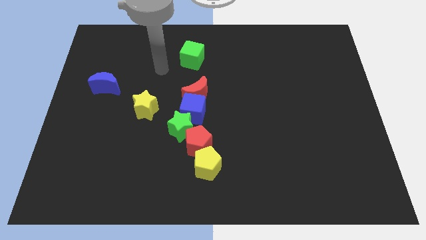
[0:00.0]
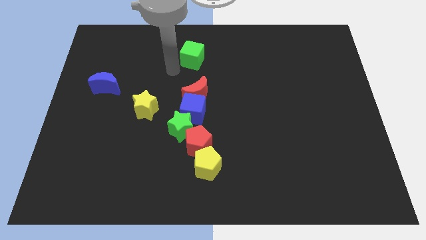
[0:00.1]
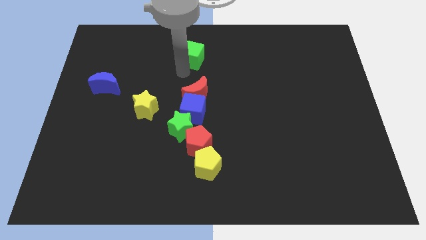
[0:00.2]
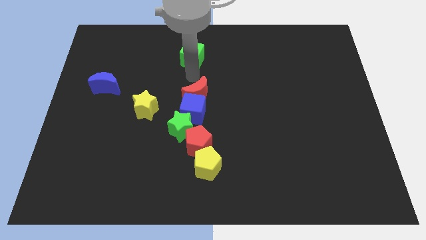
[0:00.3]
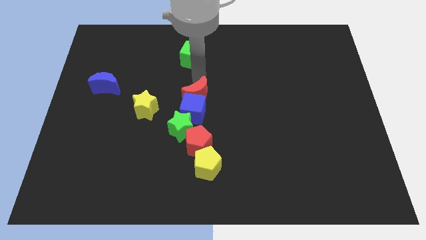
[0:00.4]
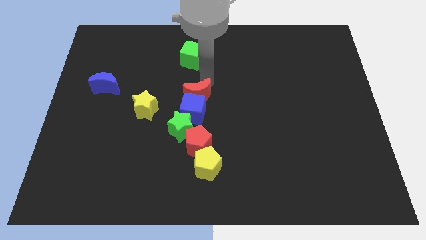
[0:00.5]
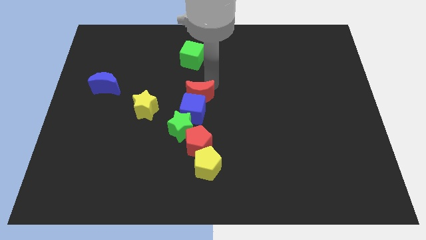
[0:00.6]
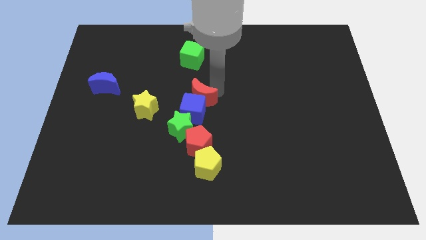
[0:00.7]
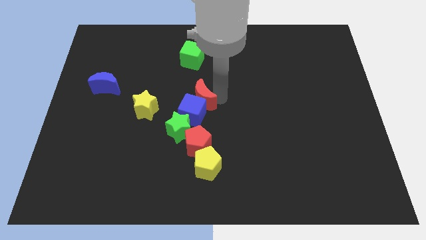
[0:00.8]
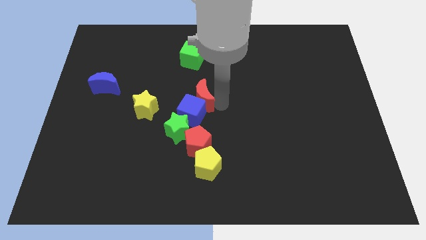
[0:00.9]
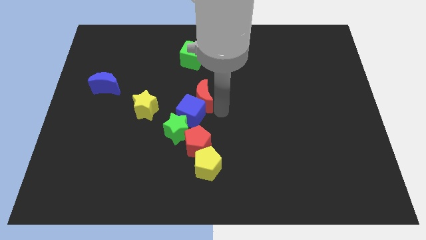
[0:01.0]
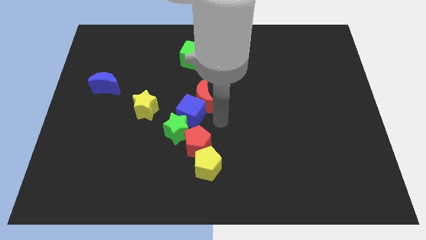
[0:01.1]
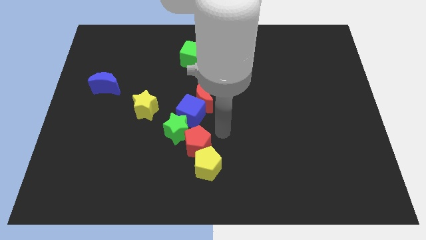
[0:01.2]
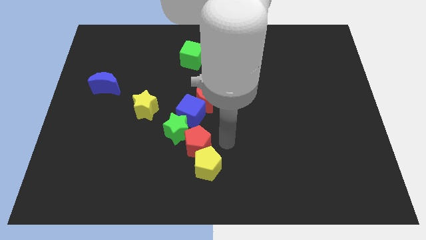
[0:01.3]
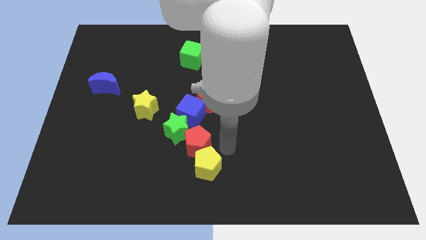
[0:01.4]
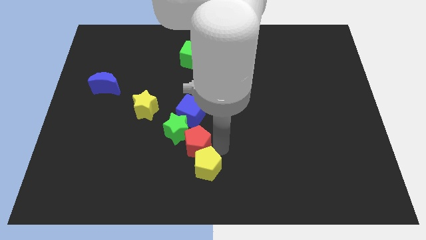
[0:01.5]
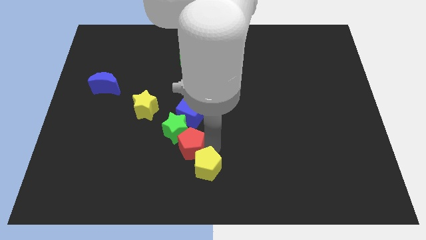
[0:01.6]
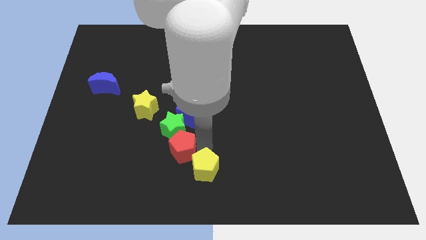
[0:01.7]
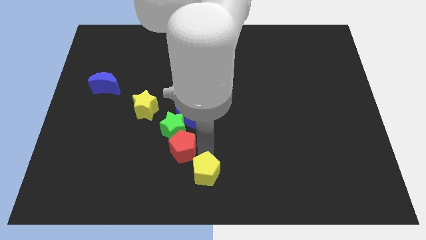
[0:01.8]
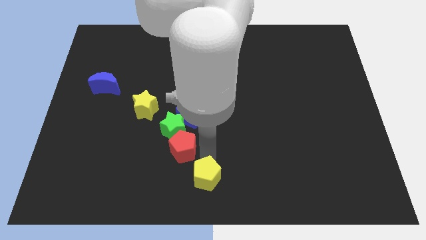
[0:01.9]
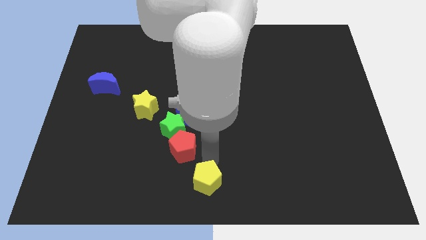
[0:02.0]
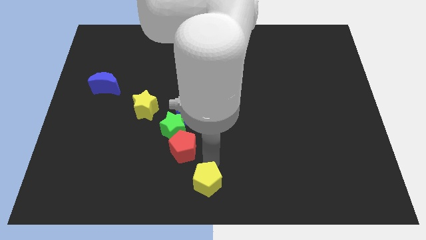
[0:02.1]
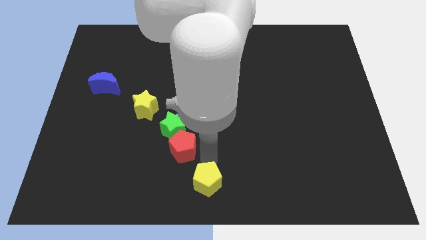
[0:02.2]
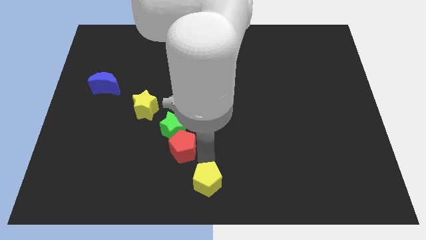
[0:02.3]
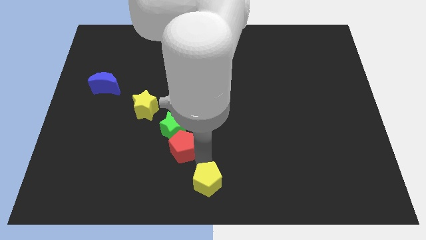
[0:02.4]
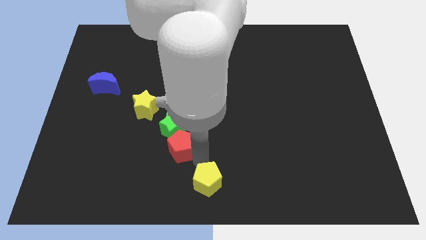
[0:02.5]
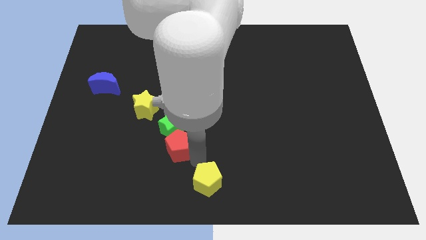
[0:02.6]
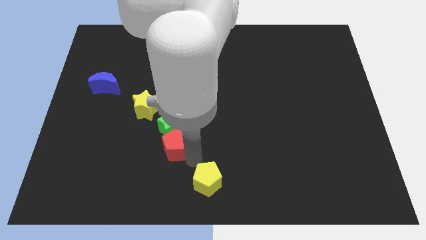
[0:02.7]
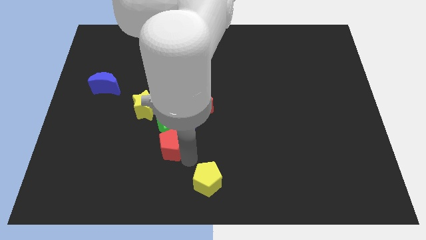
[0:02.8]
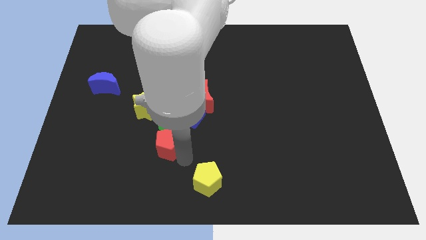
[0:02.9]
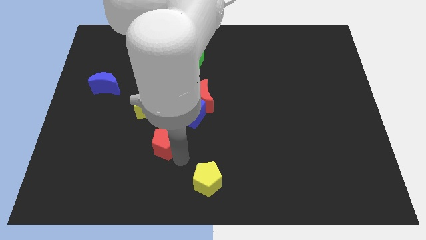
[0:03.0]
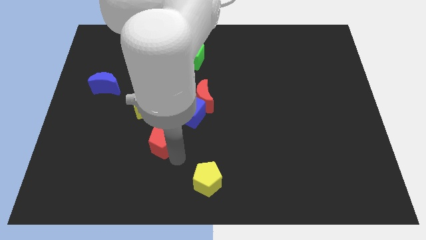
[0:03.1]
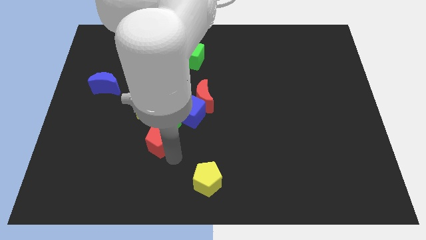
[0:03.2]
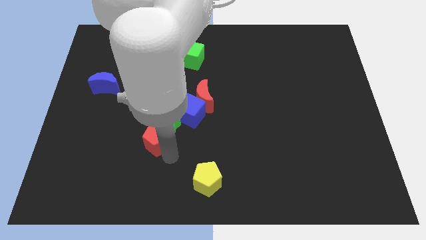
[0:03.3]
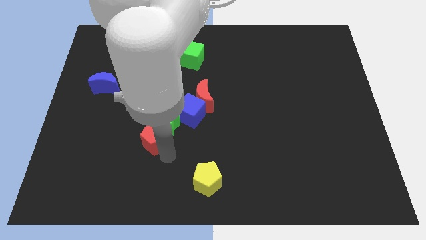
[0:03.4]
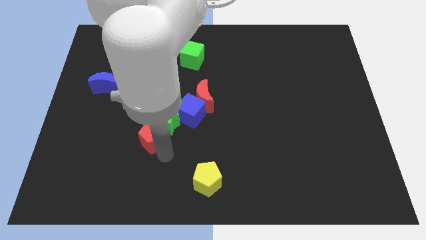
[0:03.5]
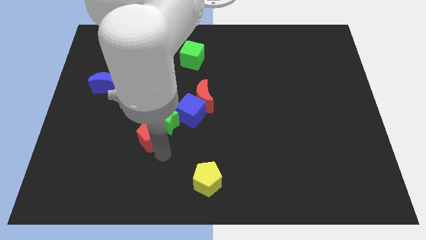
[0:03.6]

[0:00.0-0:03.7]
slightly push the red pentagon diagonally upwards and to the left

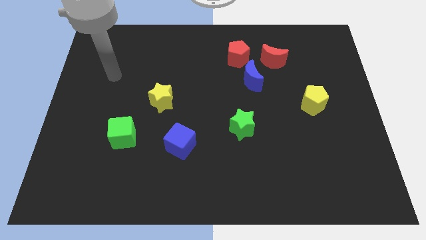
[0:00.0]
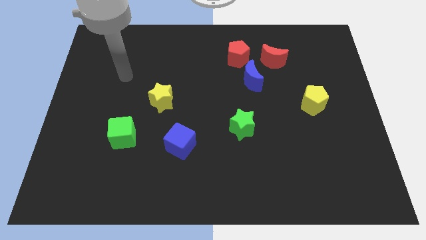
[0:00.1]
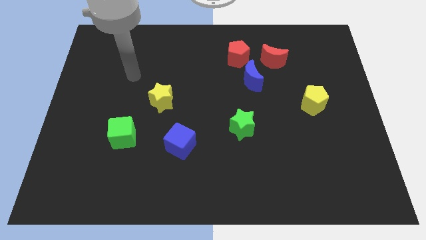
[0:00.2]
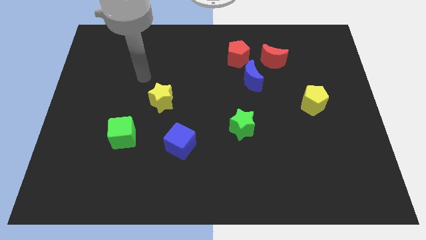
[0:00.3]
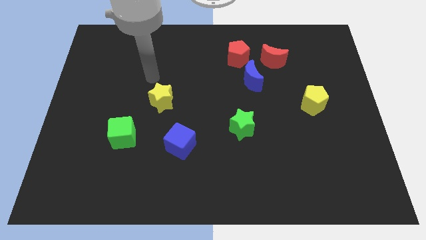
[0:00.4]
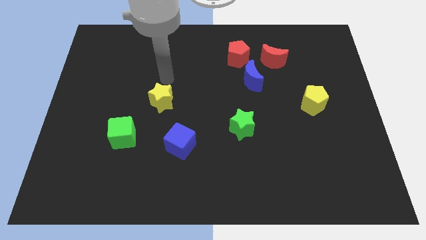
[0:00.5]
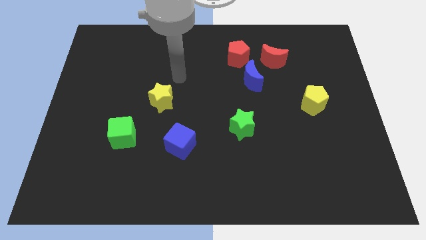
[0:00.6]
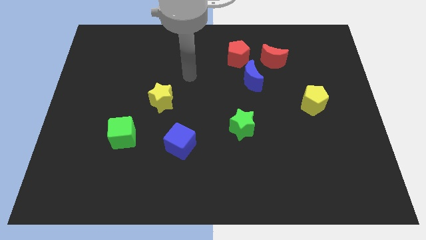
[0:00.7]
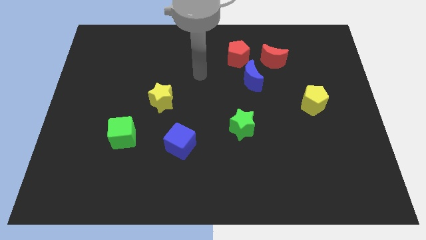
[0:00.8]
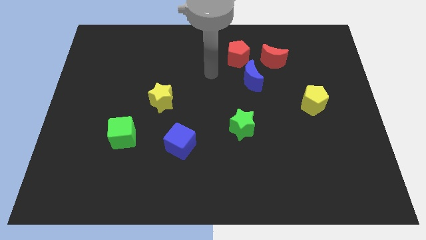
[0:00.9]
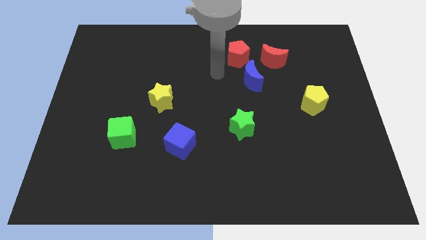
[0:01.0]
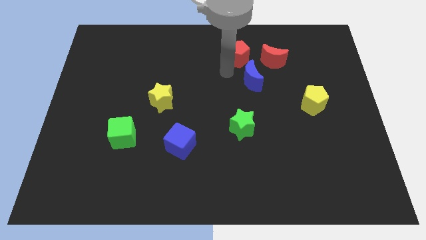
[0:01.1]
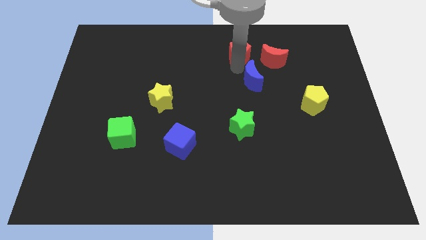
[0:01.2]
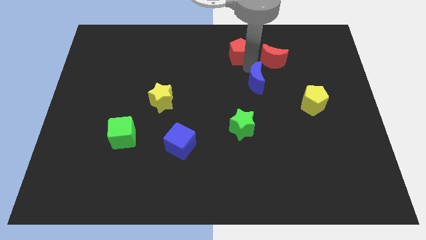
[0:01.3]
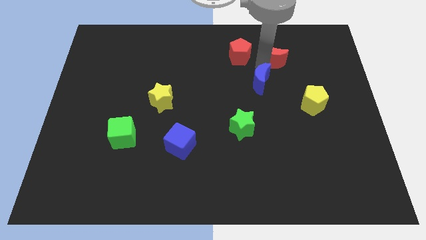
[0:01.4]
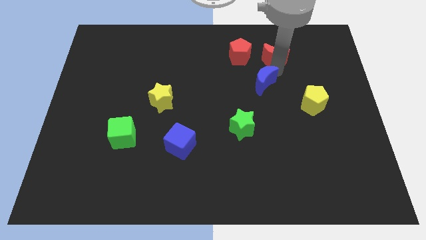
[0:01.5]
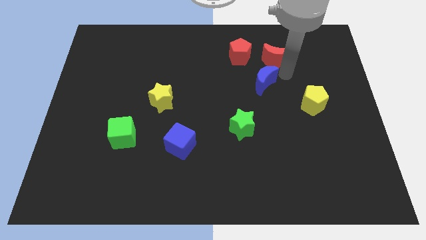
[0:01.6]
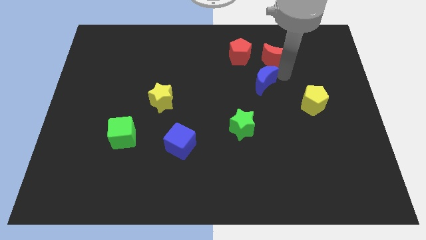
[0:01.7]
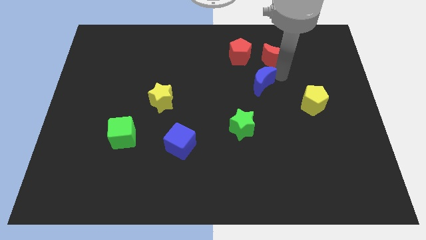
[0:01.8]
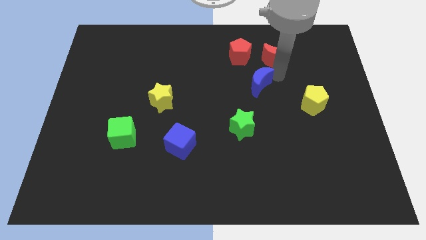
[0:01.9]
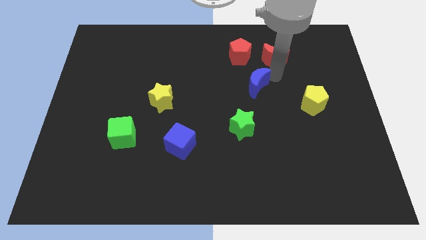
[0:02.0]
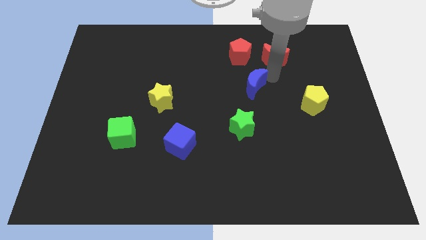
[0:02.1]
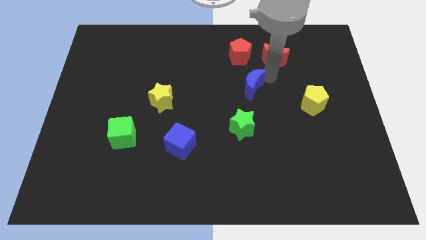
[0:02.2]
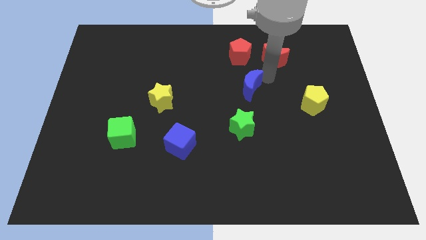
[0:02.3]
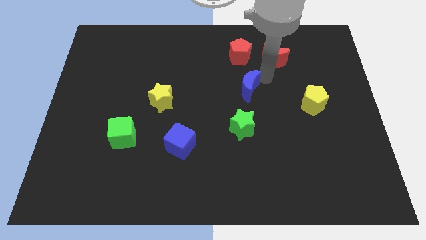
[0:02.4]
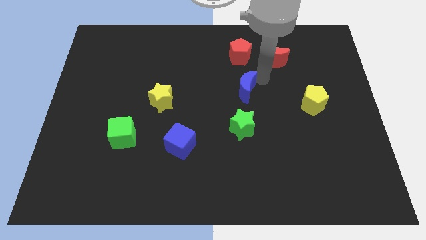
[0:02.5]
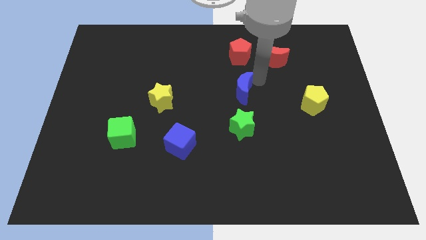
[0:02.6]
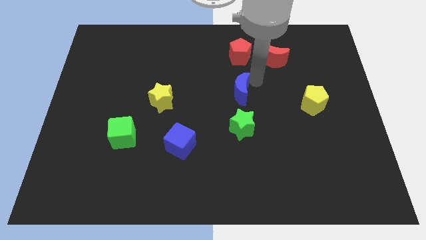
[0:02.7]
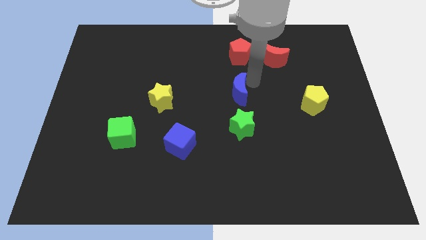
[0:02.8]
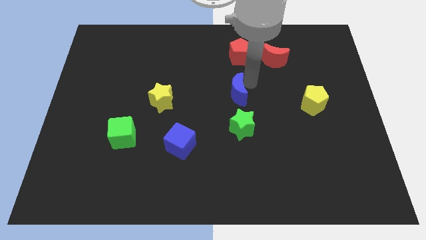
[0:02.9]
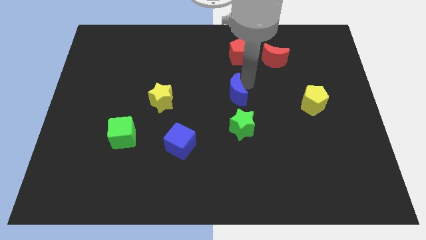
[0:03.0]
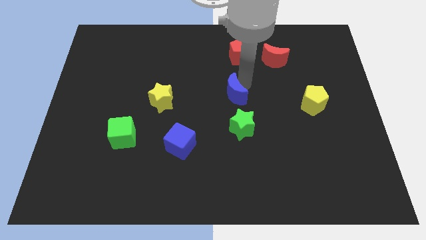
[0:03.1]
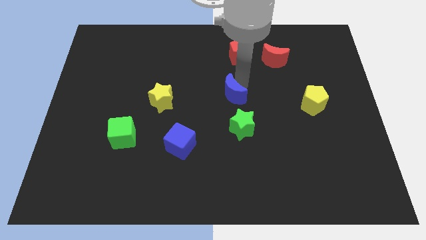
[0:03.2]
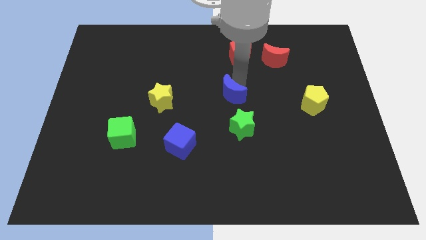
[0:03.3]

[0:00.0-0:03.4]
slightly move the blue moon downwards and then left

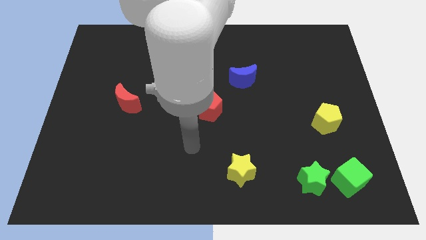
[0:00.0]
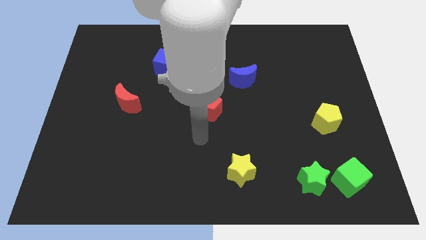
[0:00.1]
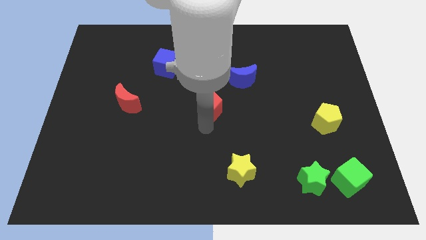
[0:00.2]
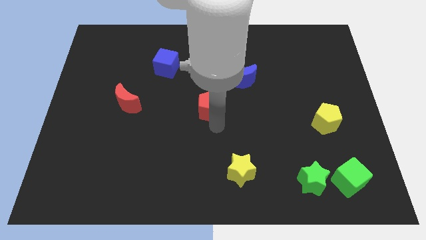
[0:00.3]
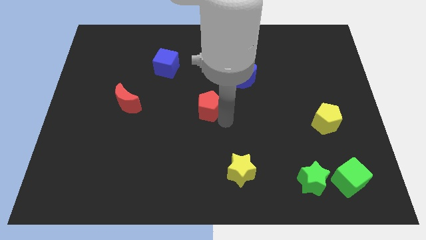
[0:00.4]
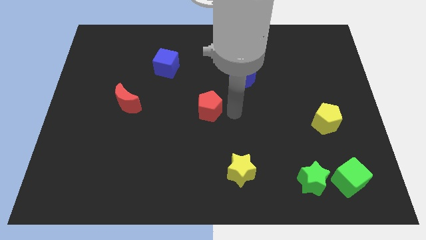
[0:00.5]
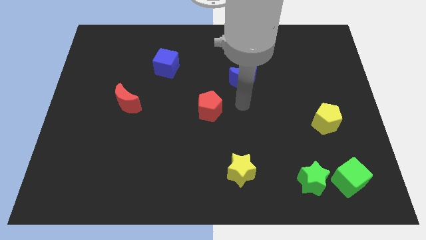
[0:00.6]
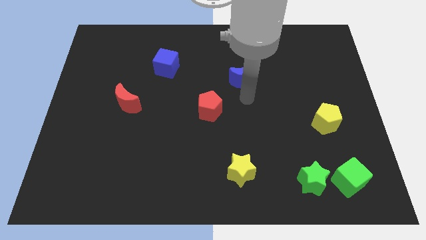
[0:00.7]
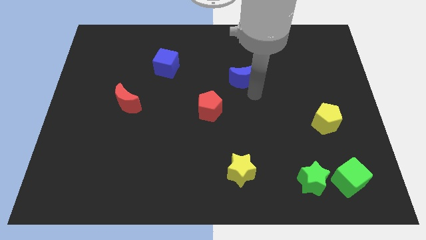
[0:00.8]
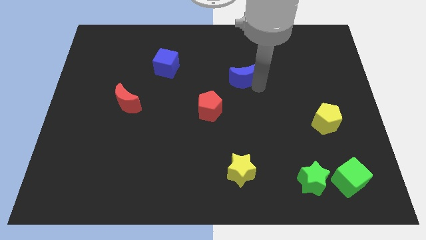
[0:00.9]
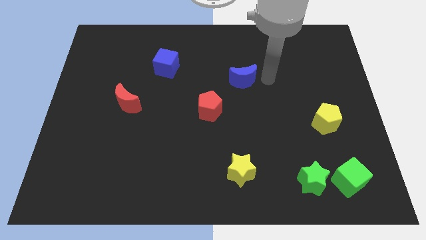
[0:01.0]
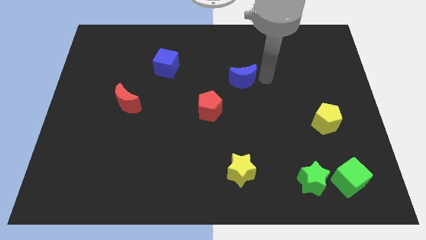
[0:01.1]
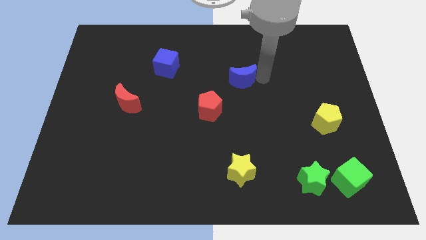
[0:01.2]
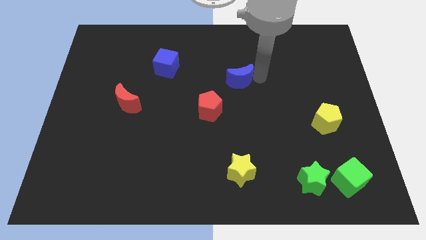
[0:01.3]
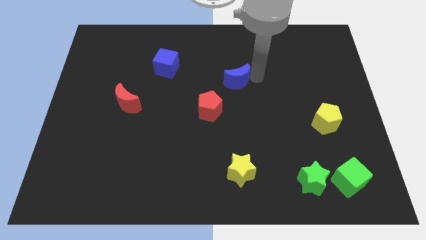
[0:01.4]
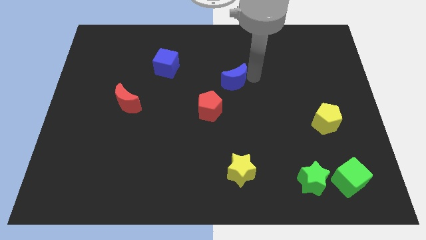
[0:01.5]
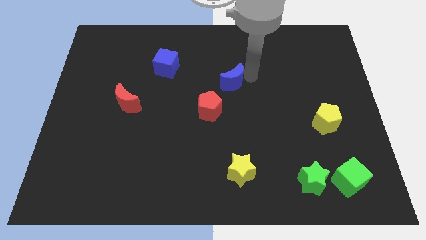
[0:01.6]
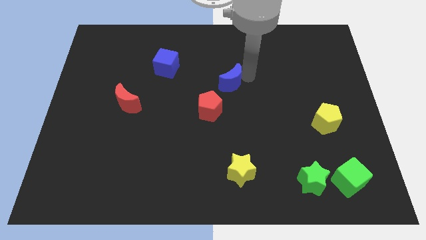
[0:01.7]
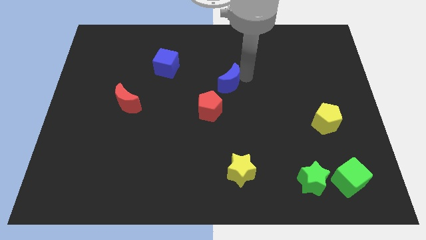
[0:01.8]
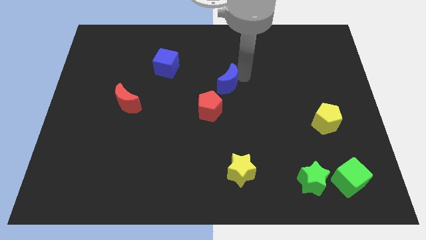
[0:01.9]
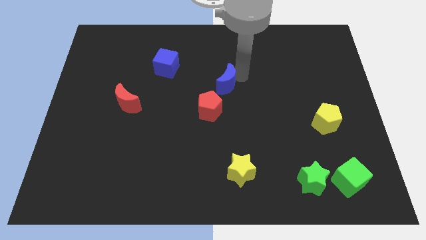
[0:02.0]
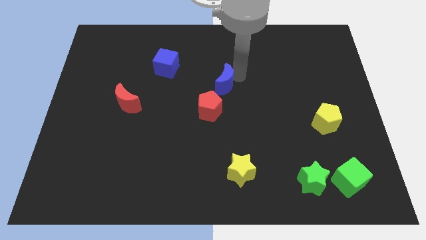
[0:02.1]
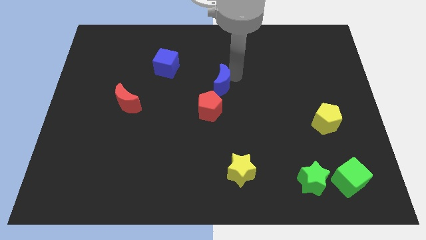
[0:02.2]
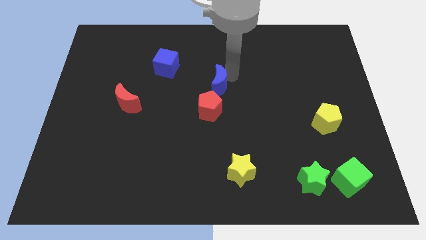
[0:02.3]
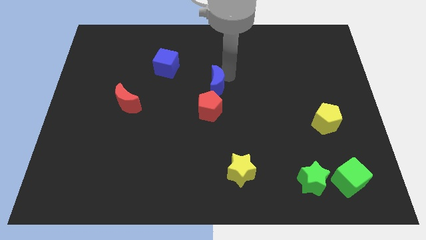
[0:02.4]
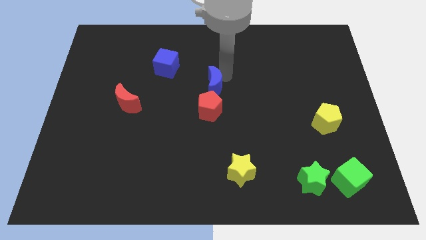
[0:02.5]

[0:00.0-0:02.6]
move the blue moon to the left a little bit
